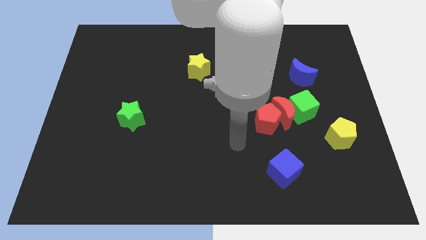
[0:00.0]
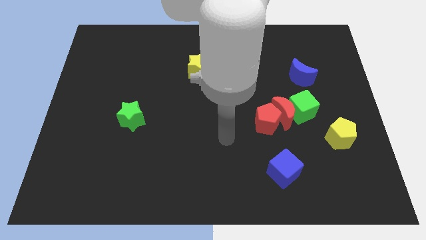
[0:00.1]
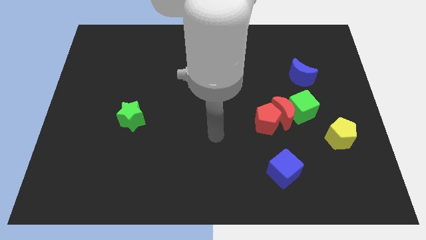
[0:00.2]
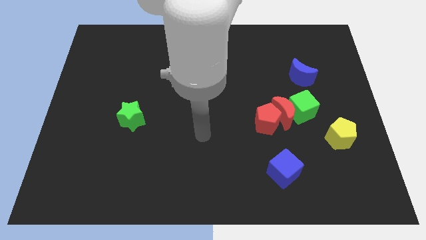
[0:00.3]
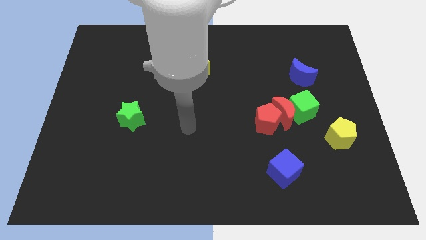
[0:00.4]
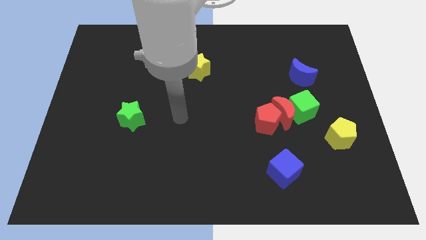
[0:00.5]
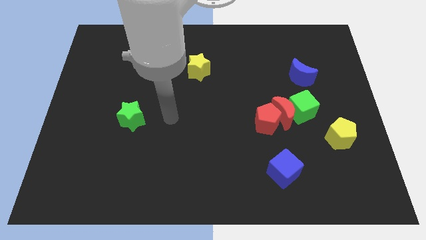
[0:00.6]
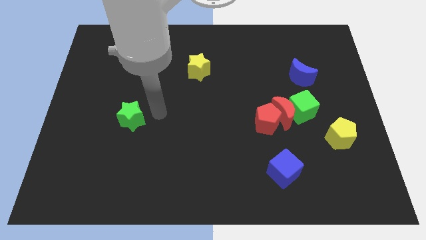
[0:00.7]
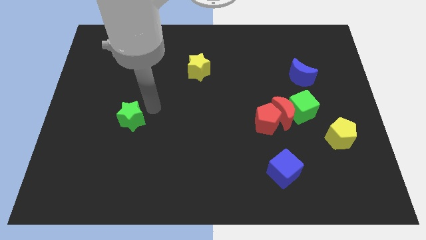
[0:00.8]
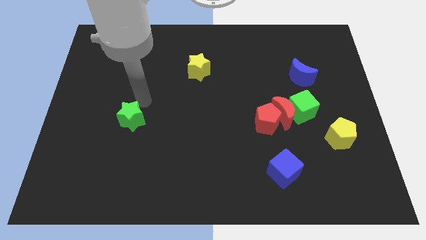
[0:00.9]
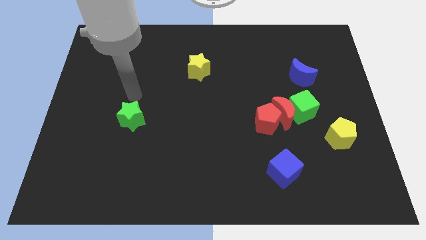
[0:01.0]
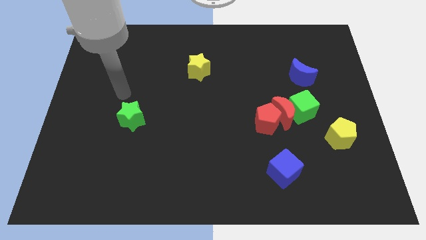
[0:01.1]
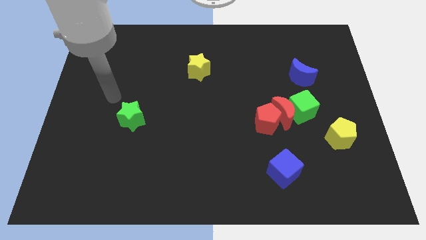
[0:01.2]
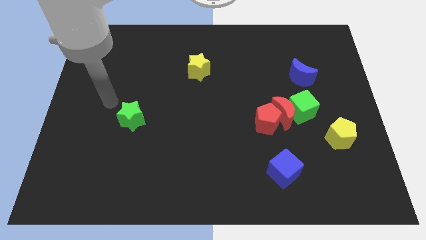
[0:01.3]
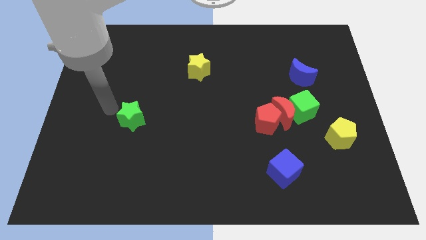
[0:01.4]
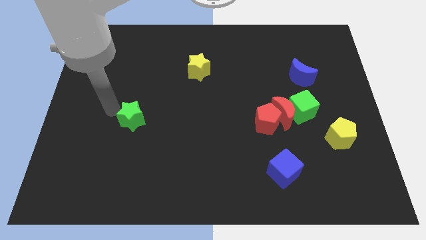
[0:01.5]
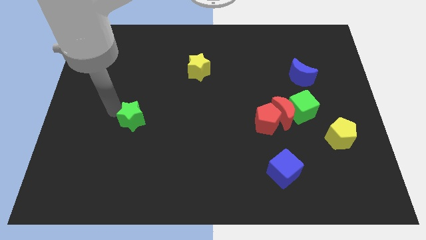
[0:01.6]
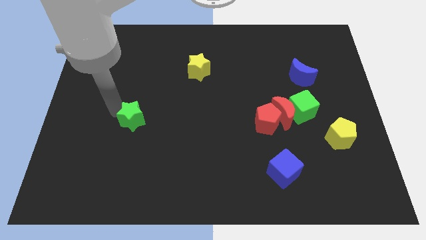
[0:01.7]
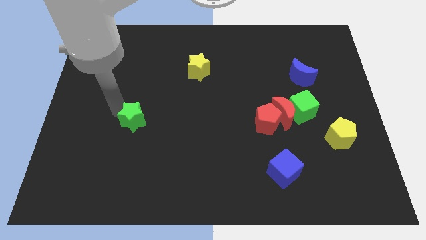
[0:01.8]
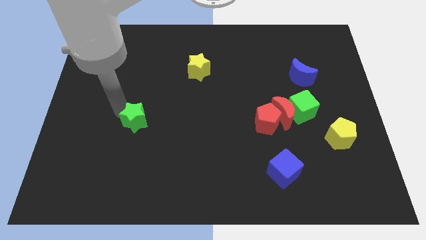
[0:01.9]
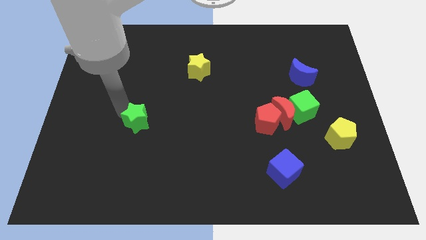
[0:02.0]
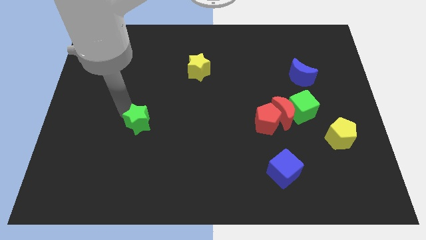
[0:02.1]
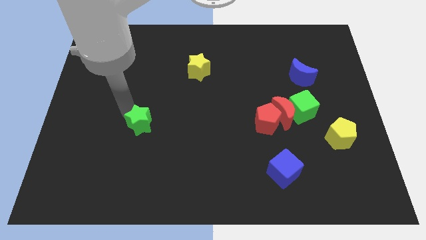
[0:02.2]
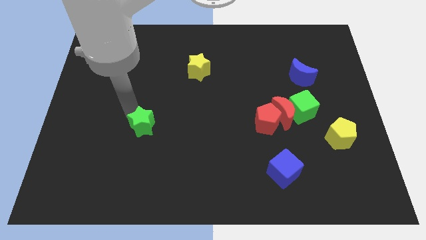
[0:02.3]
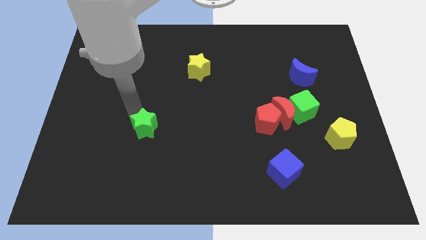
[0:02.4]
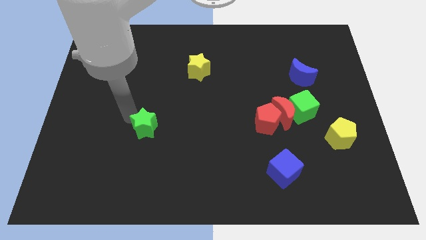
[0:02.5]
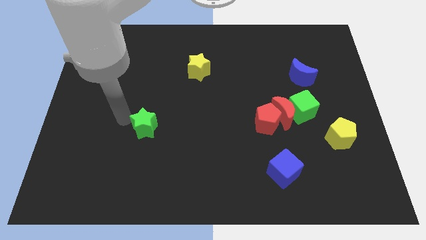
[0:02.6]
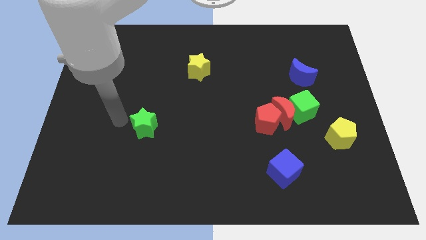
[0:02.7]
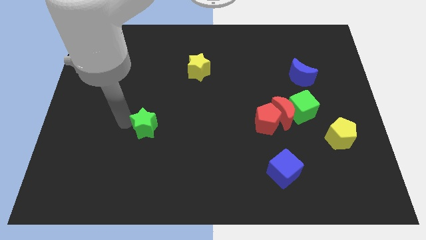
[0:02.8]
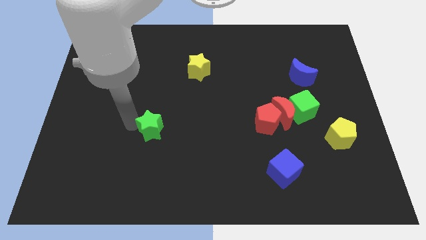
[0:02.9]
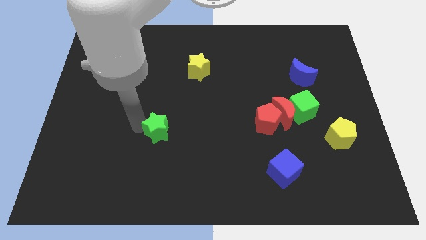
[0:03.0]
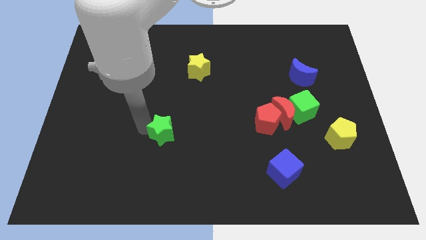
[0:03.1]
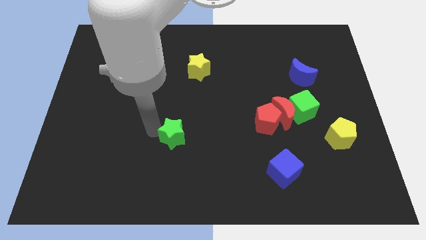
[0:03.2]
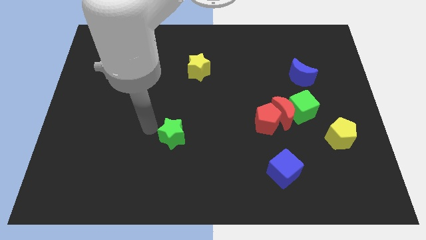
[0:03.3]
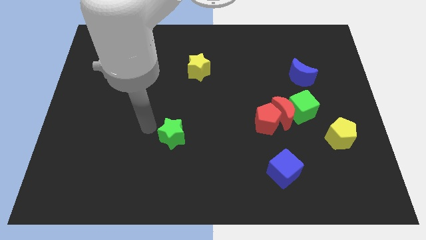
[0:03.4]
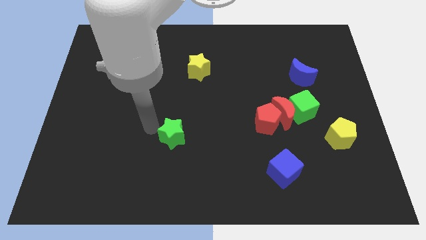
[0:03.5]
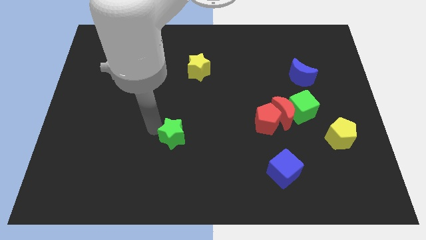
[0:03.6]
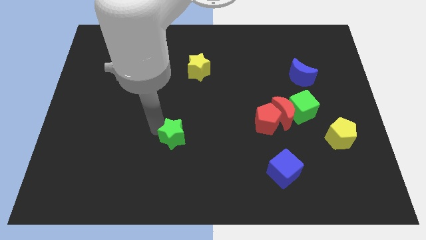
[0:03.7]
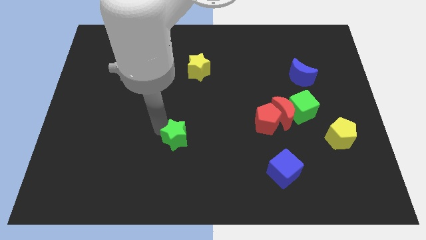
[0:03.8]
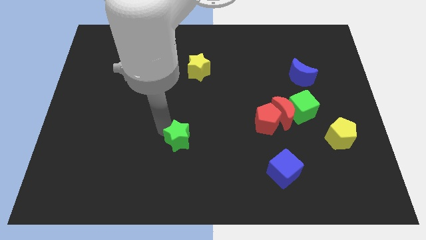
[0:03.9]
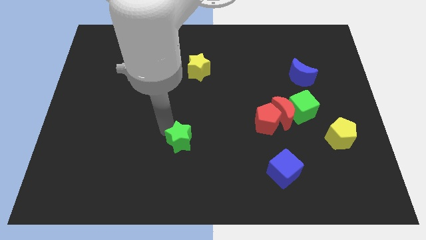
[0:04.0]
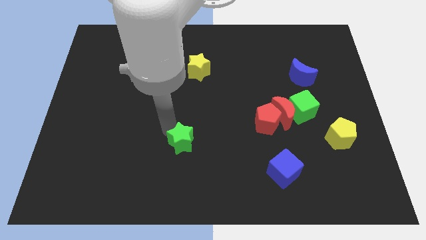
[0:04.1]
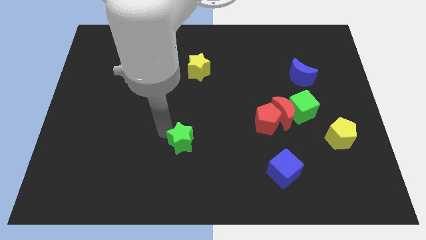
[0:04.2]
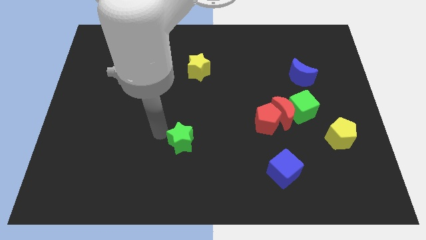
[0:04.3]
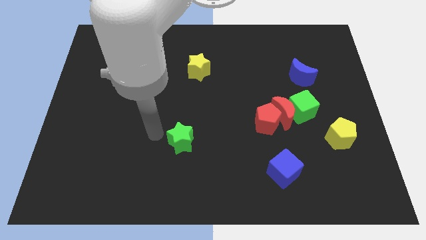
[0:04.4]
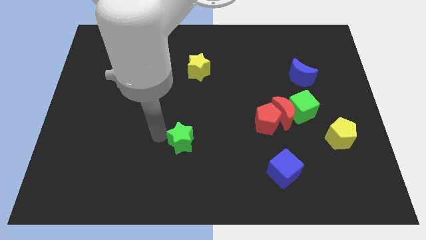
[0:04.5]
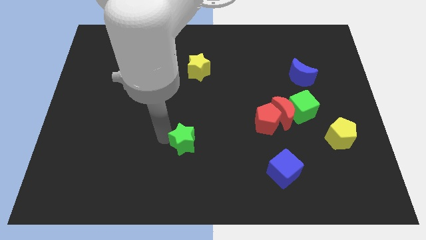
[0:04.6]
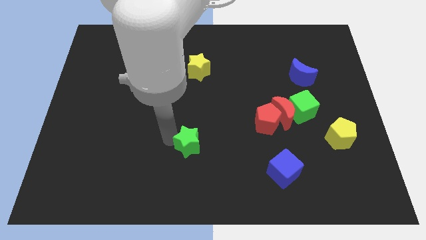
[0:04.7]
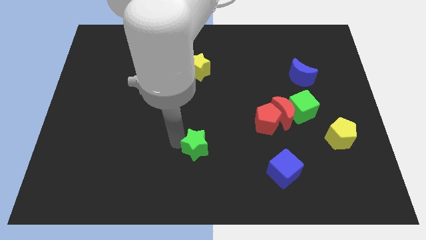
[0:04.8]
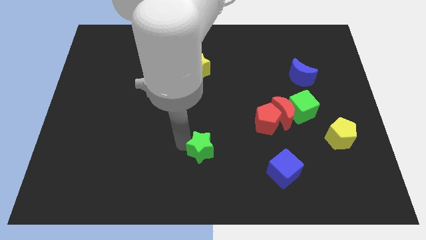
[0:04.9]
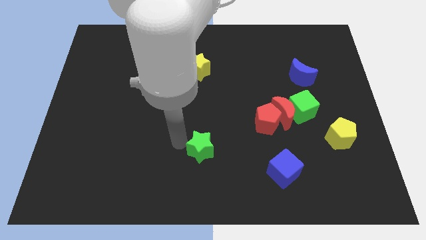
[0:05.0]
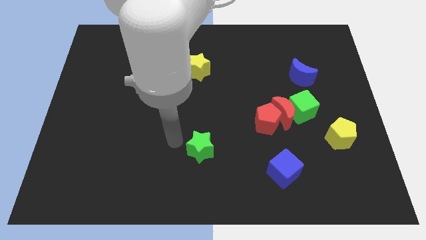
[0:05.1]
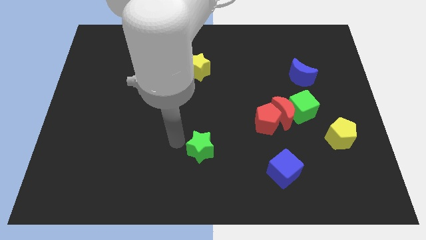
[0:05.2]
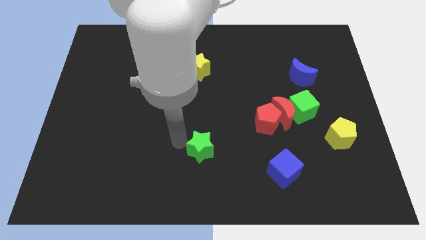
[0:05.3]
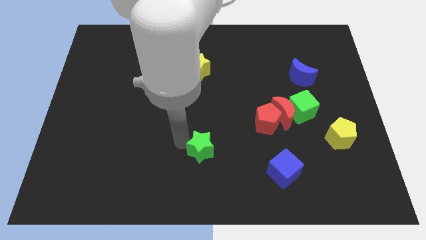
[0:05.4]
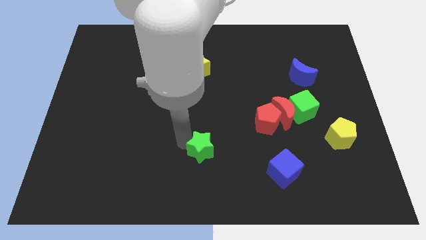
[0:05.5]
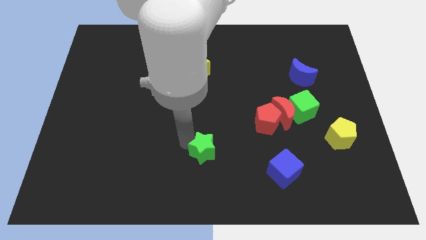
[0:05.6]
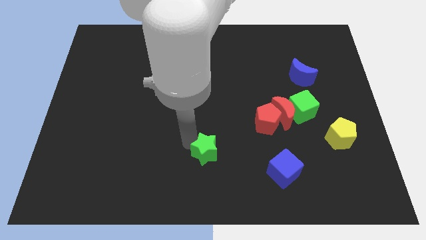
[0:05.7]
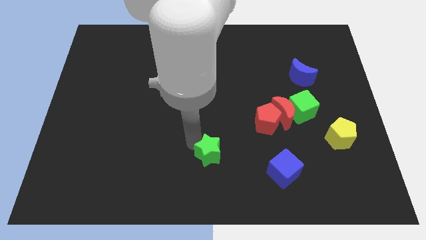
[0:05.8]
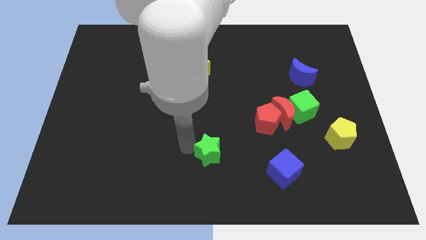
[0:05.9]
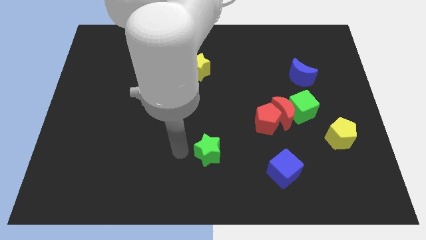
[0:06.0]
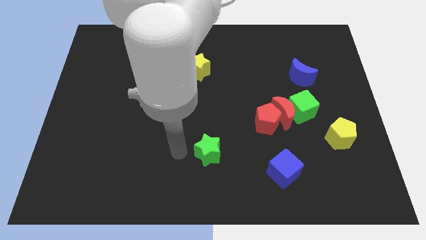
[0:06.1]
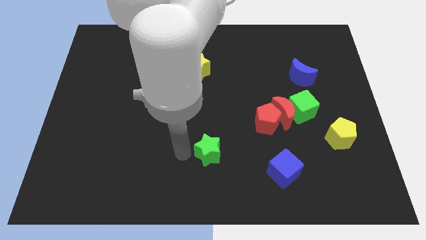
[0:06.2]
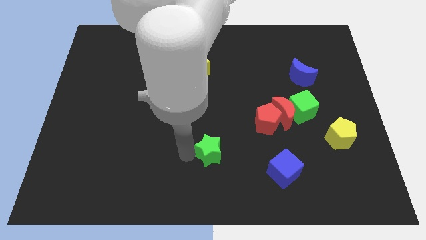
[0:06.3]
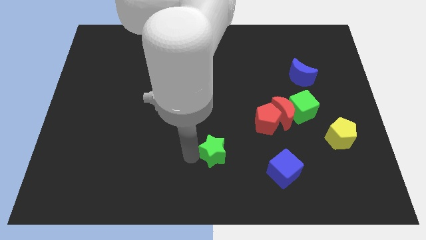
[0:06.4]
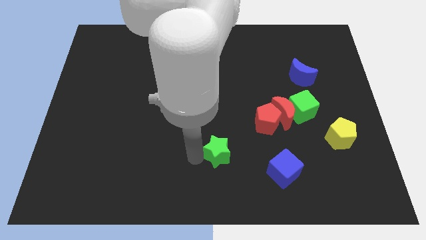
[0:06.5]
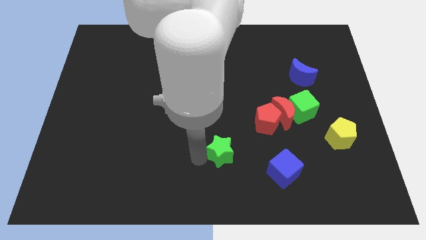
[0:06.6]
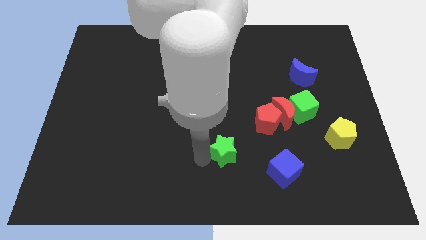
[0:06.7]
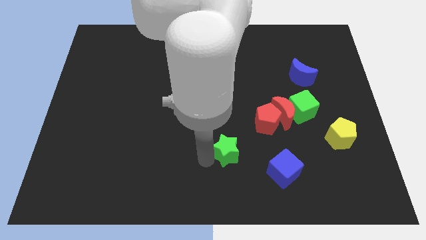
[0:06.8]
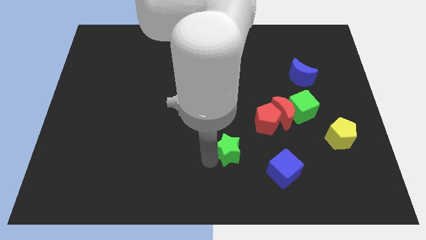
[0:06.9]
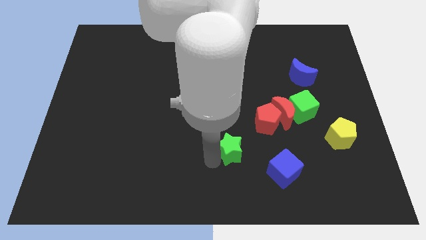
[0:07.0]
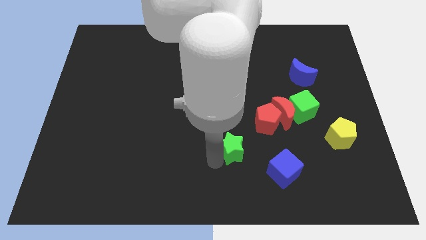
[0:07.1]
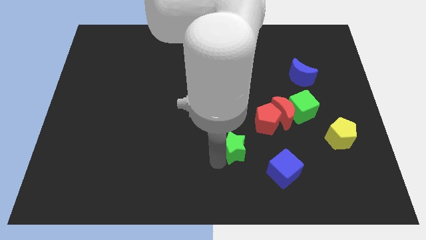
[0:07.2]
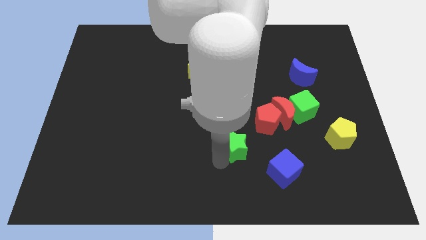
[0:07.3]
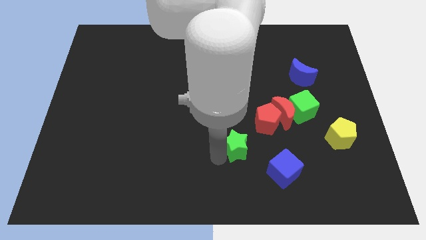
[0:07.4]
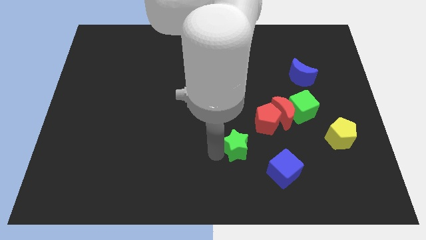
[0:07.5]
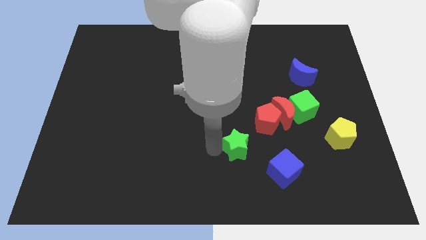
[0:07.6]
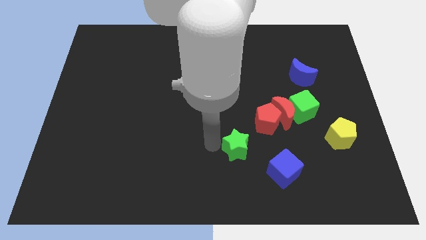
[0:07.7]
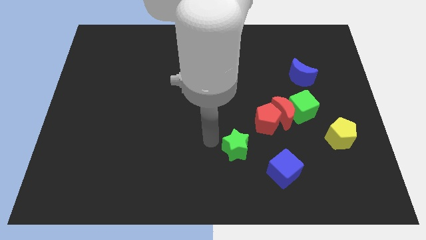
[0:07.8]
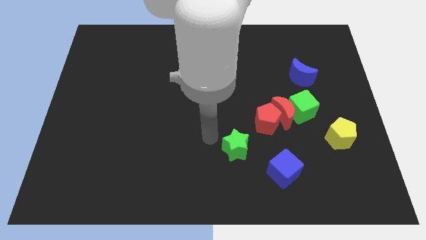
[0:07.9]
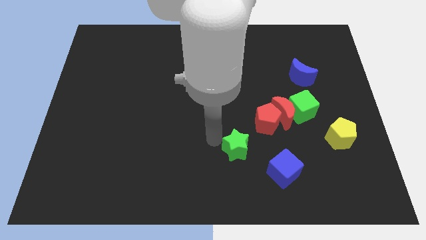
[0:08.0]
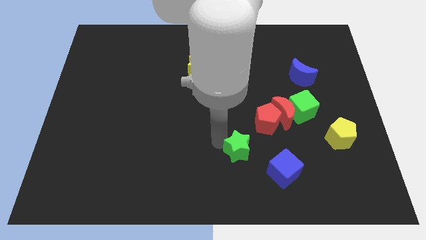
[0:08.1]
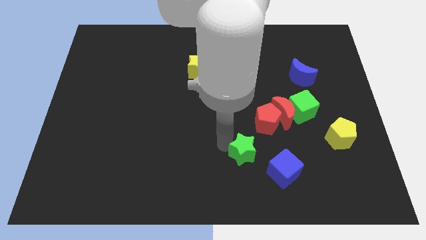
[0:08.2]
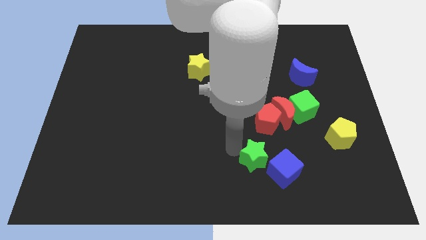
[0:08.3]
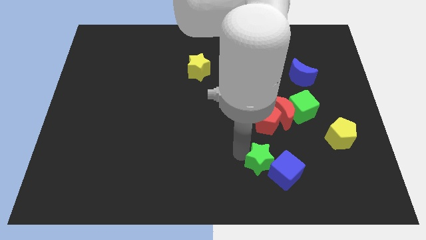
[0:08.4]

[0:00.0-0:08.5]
put the green star next to the blue cube
